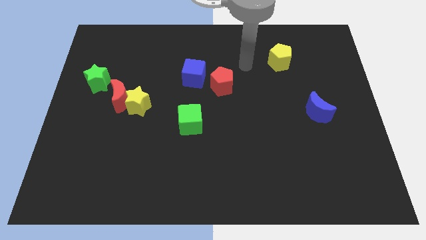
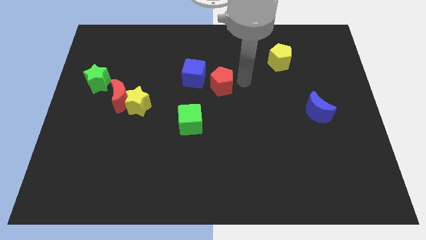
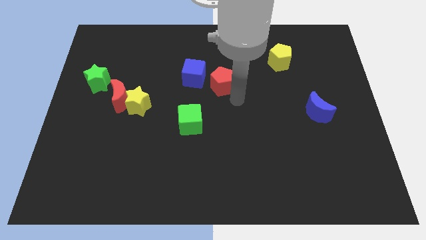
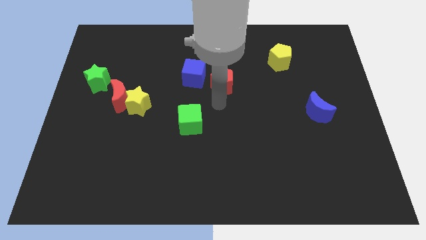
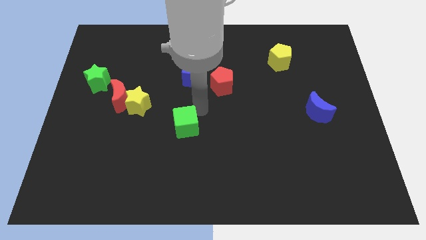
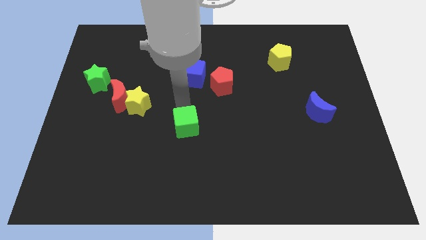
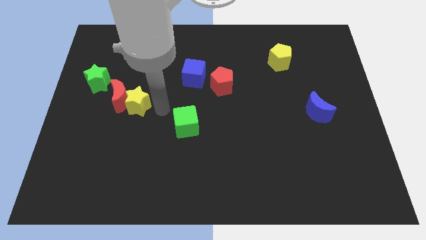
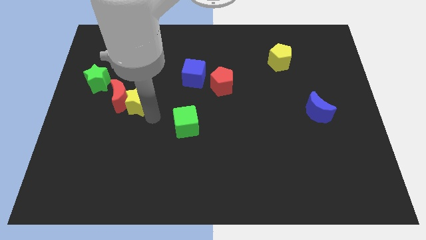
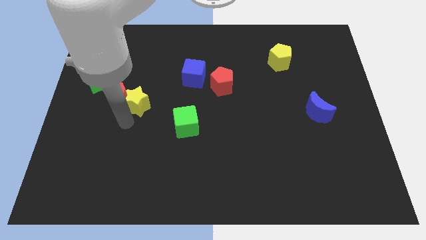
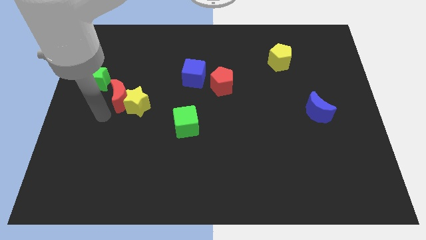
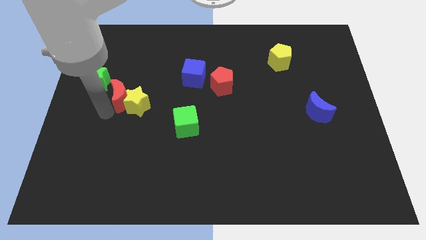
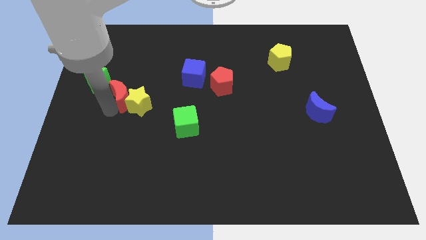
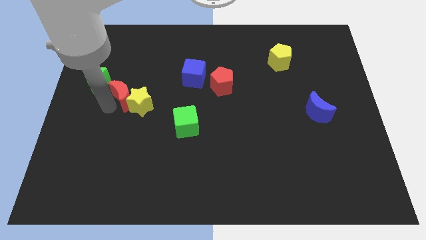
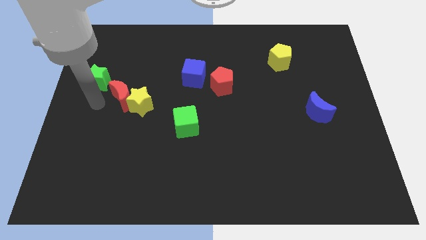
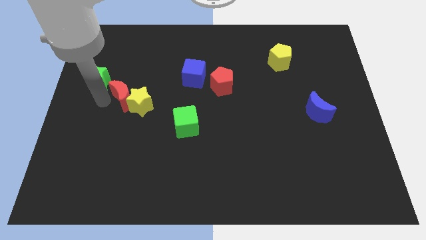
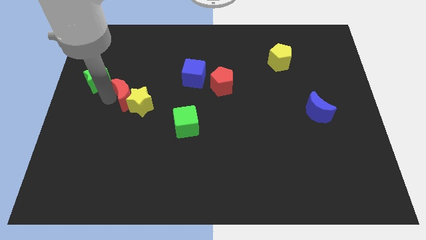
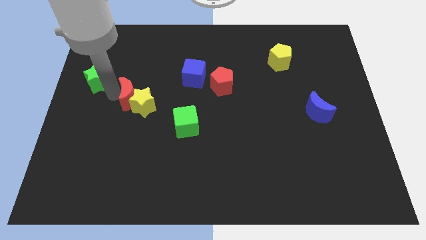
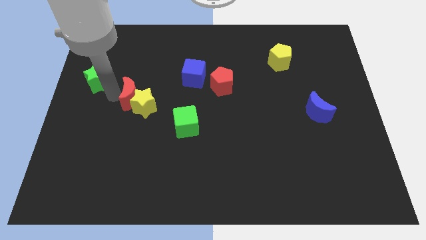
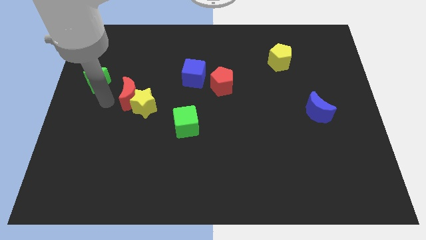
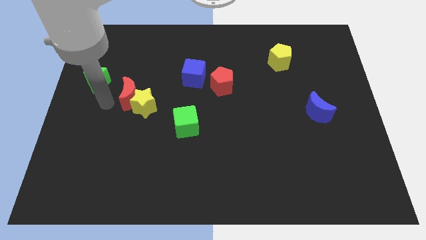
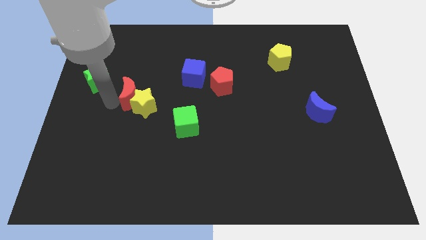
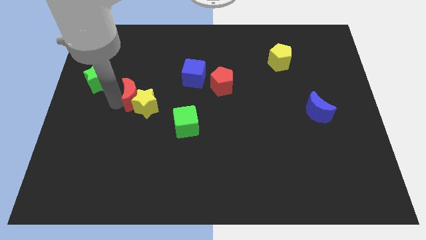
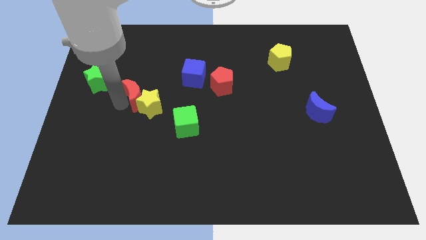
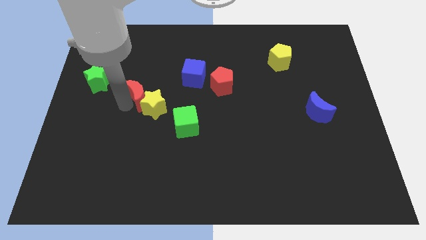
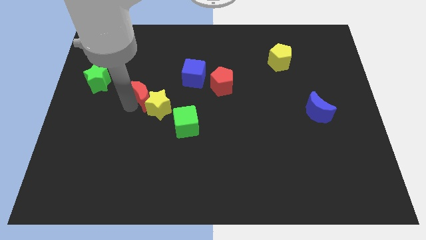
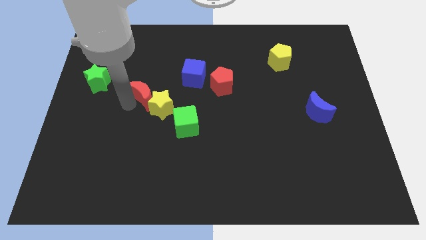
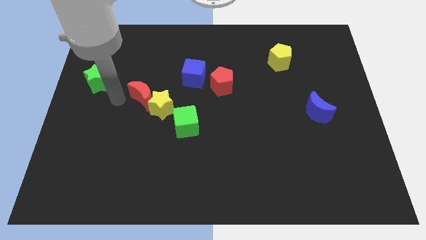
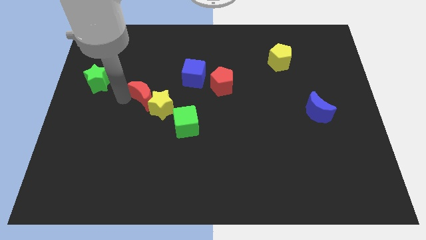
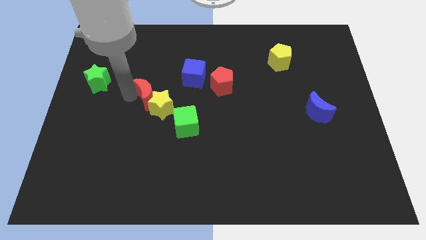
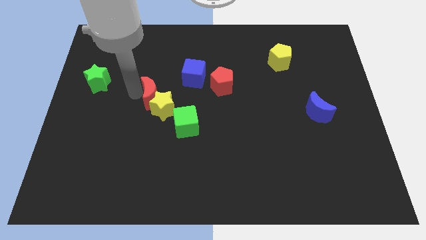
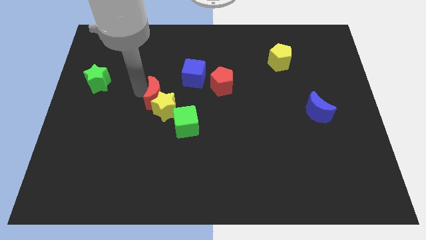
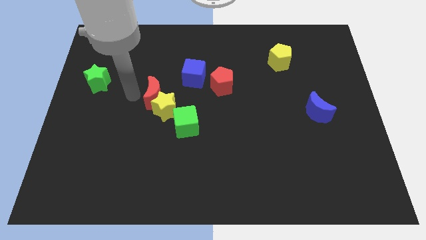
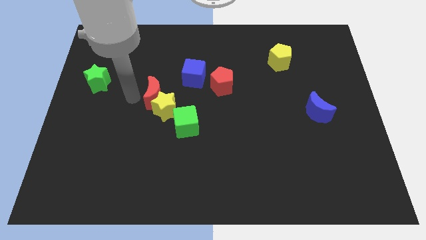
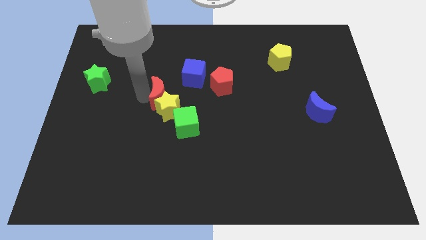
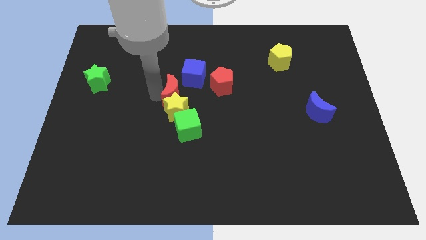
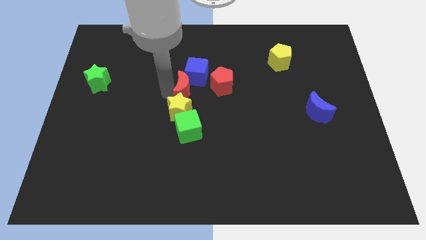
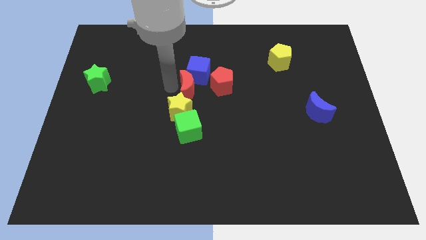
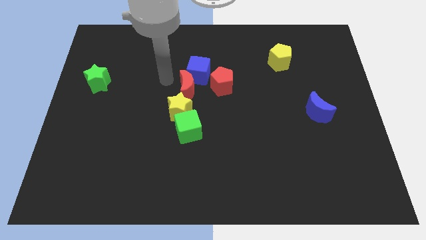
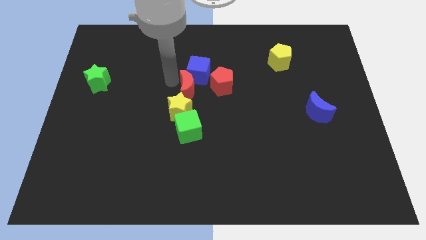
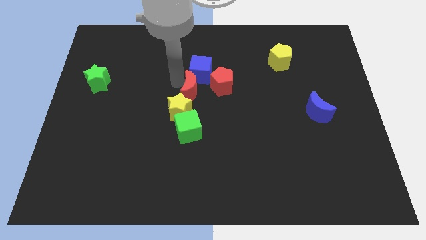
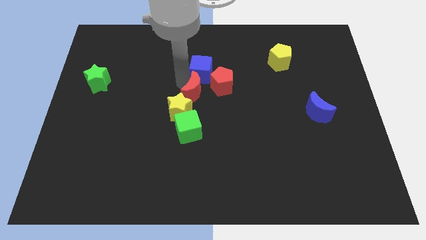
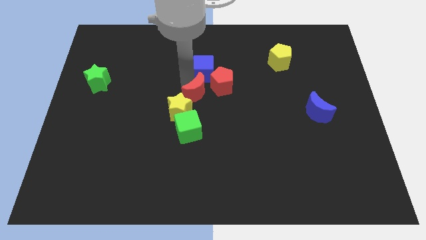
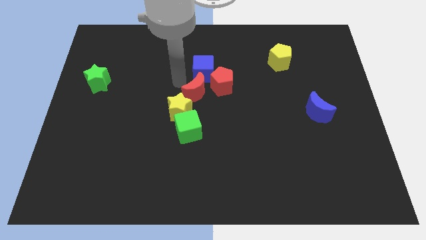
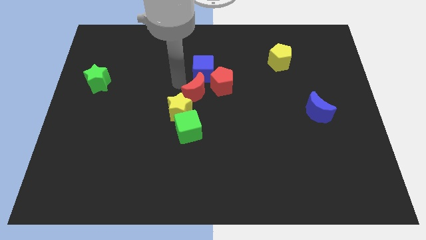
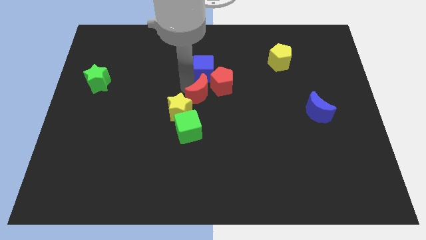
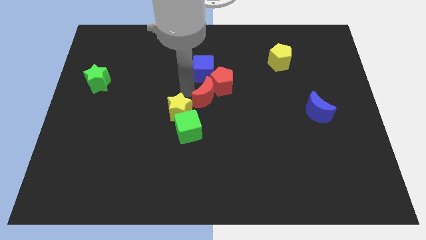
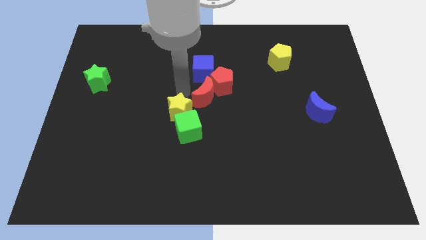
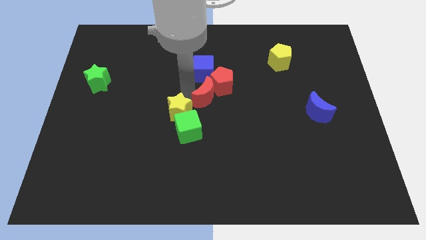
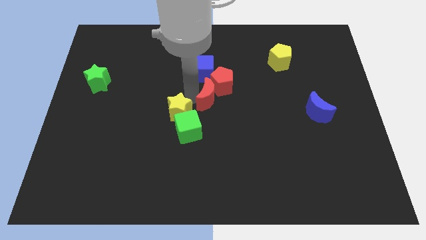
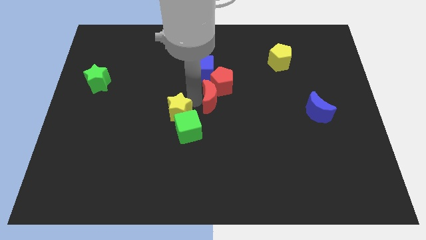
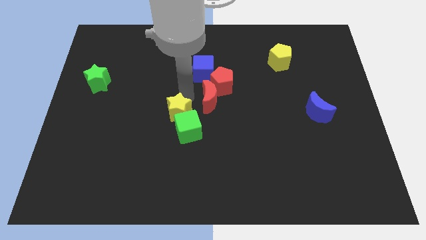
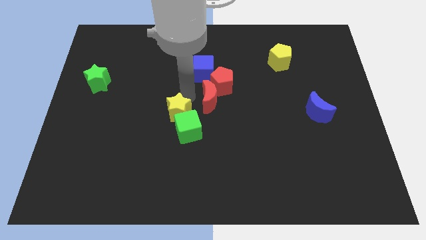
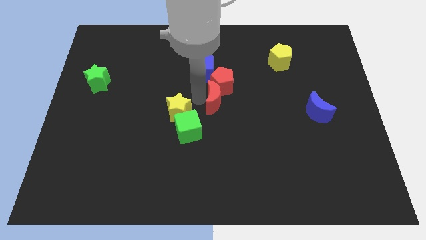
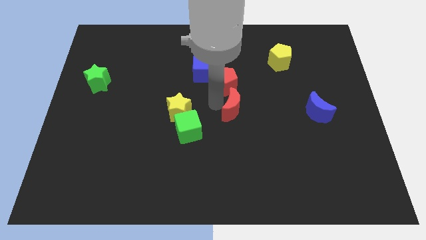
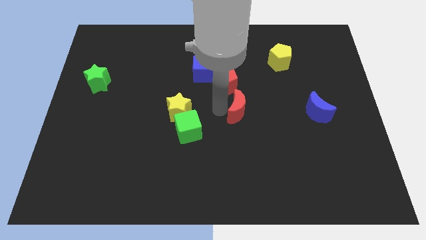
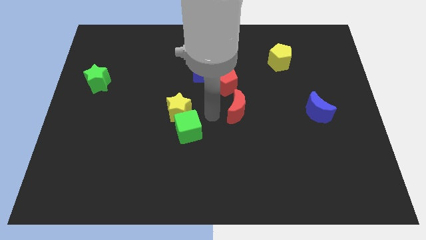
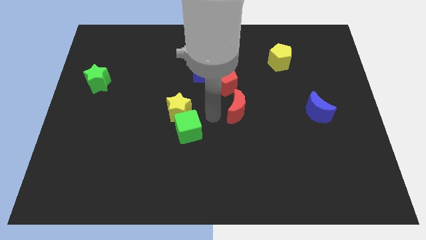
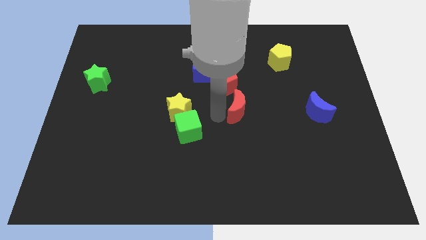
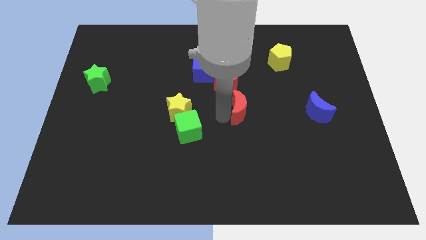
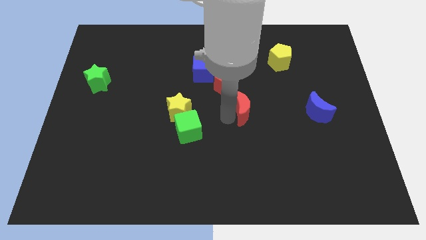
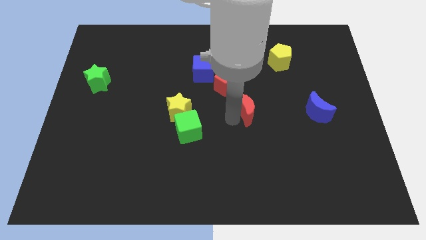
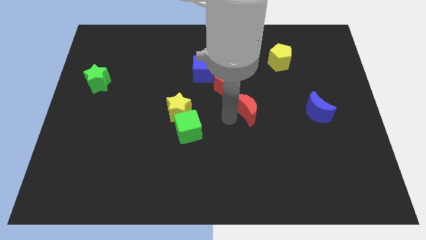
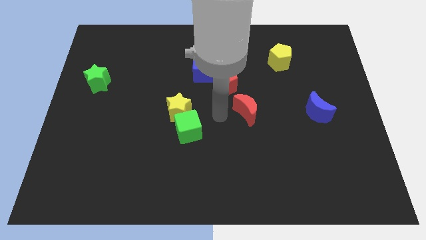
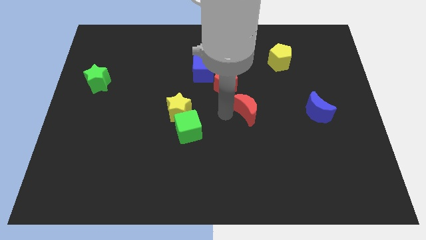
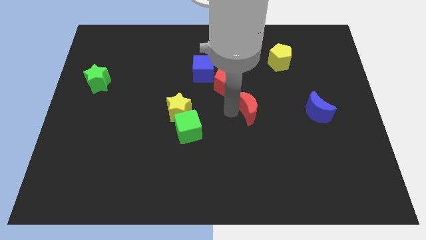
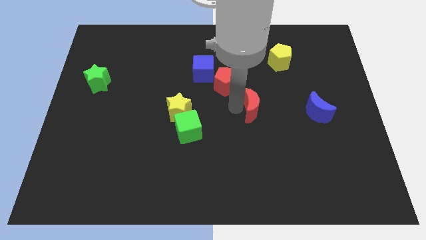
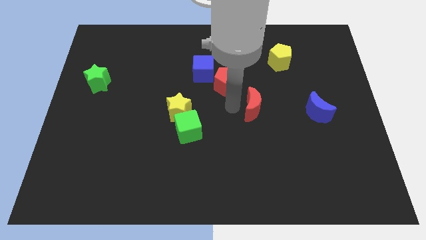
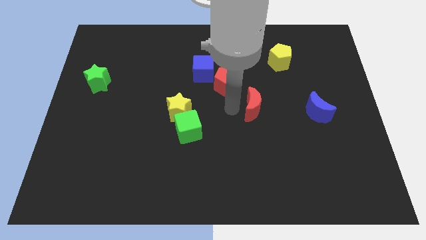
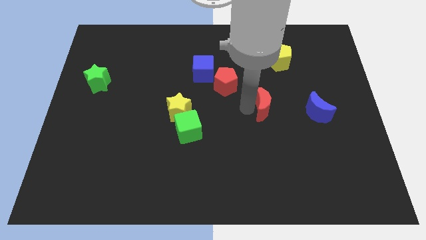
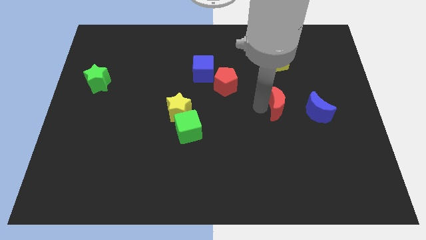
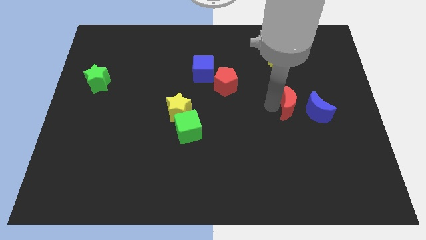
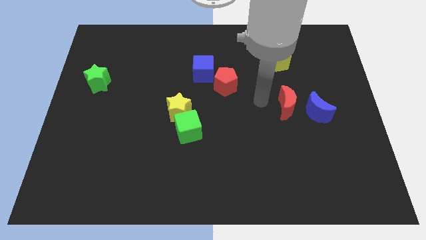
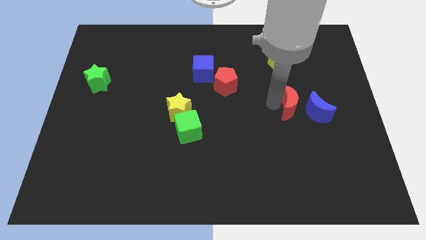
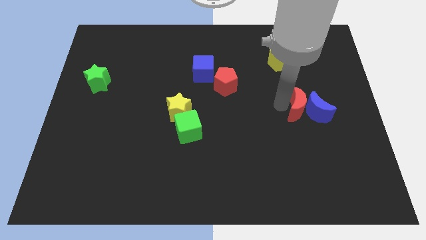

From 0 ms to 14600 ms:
push the red moon next to the blue moon
